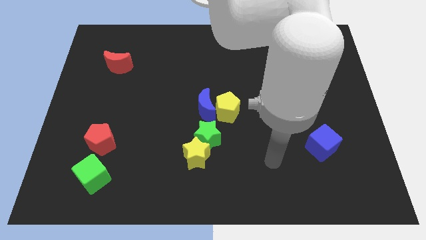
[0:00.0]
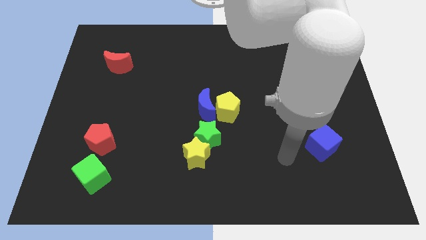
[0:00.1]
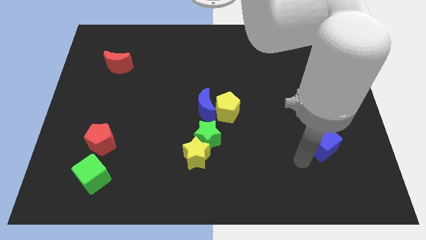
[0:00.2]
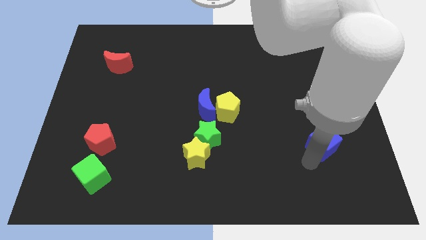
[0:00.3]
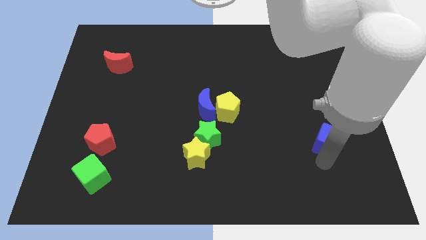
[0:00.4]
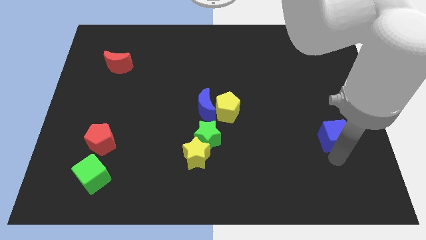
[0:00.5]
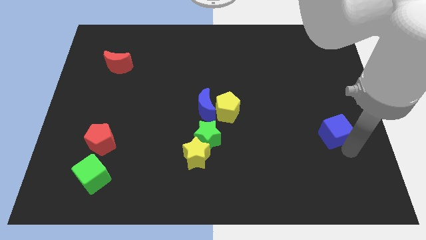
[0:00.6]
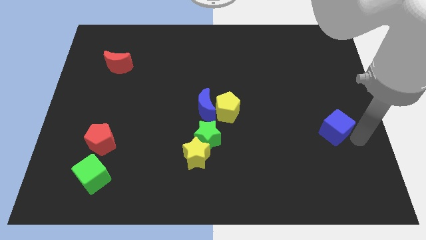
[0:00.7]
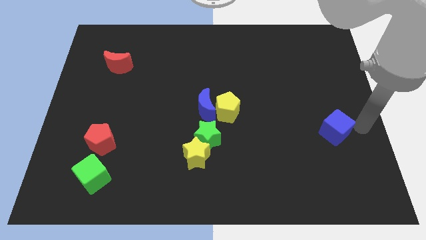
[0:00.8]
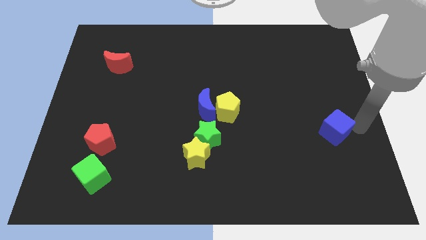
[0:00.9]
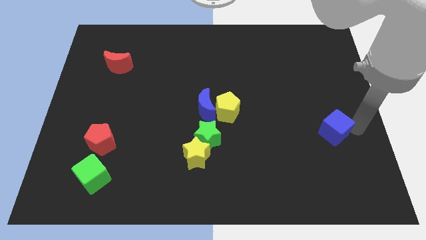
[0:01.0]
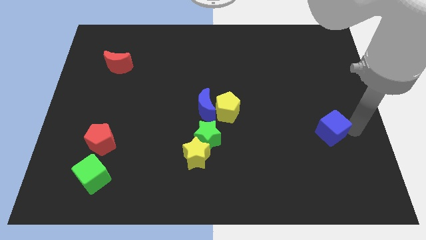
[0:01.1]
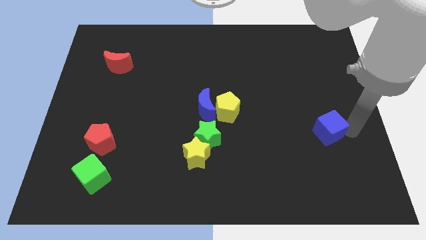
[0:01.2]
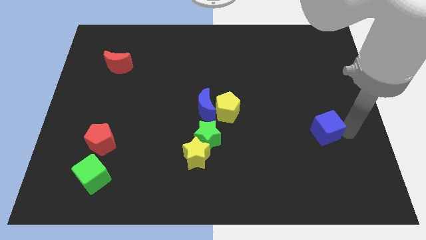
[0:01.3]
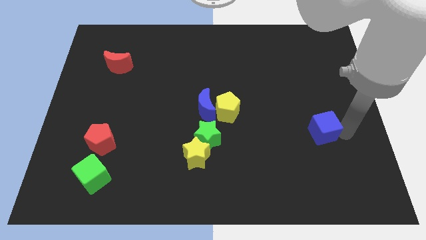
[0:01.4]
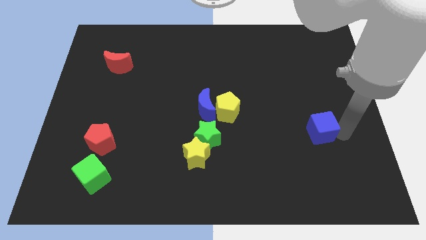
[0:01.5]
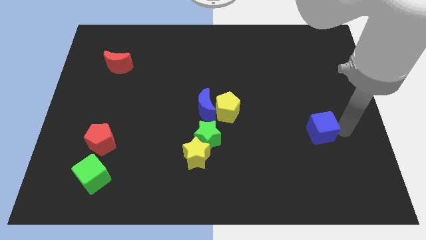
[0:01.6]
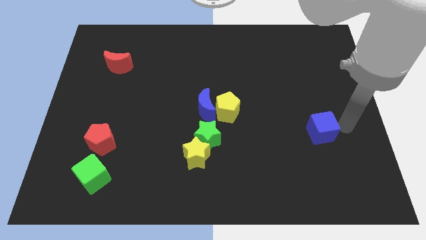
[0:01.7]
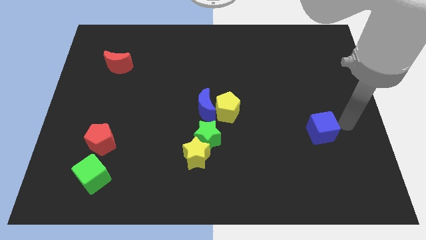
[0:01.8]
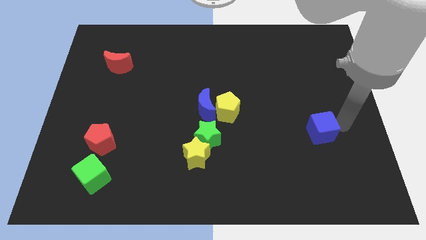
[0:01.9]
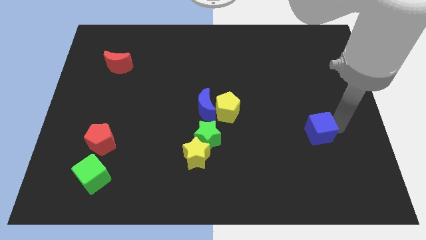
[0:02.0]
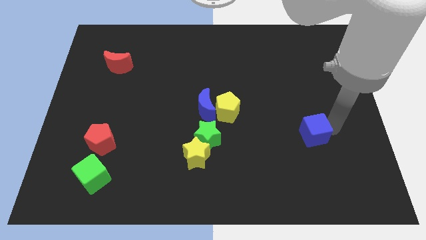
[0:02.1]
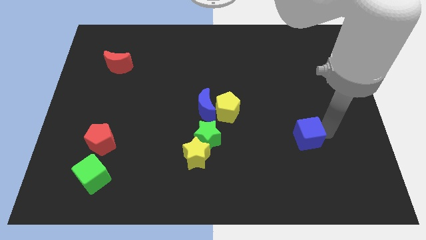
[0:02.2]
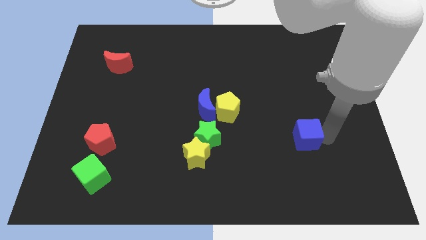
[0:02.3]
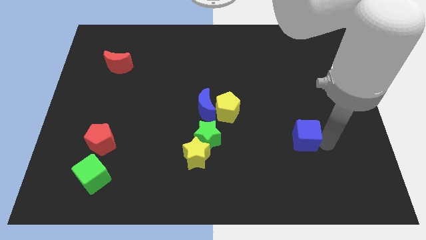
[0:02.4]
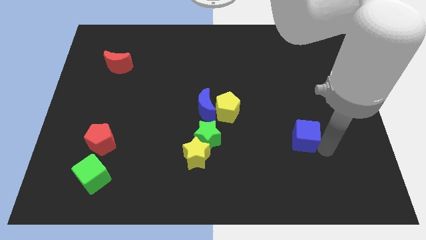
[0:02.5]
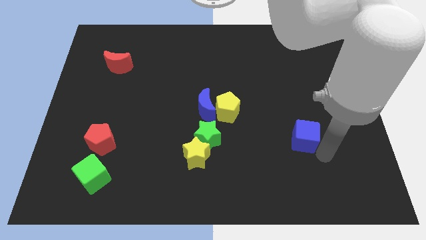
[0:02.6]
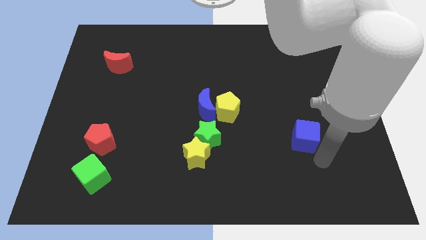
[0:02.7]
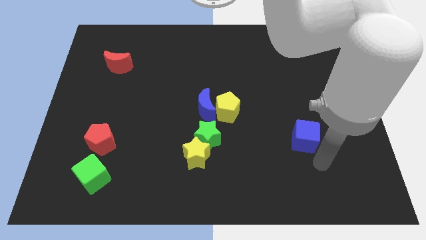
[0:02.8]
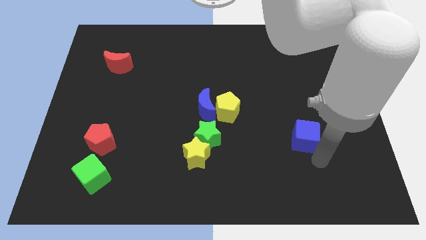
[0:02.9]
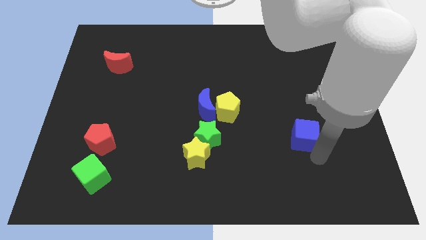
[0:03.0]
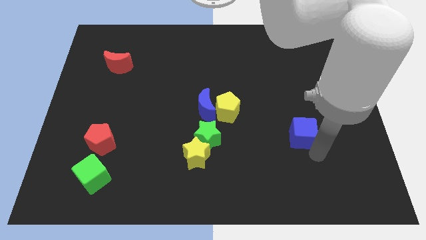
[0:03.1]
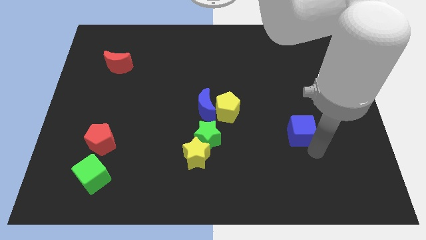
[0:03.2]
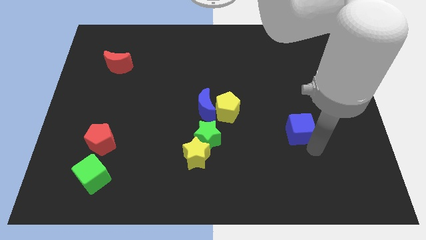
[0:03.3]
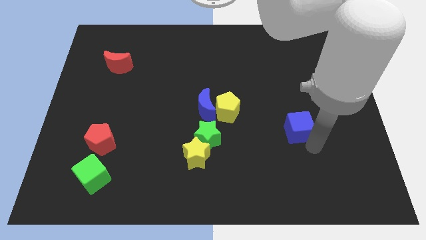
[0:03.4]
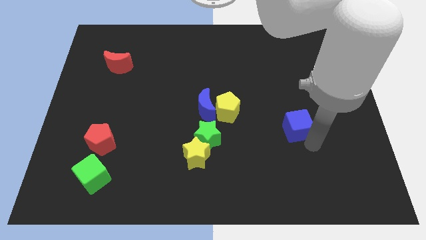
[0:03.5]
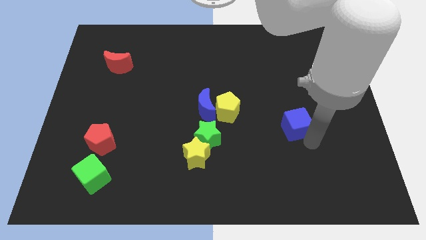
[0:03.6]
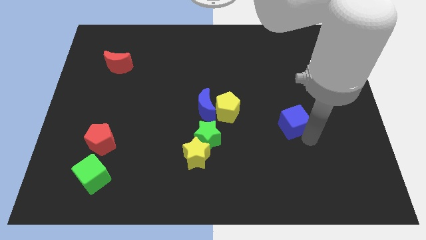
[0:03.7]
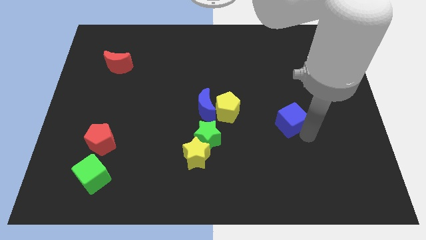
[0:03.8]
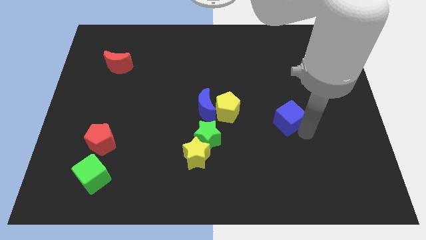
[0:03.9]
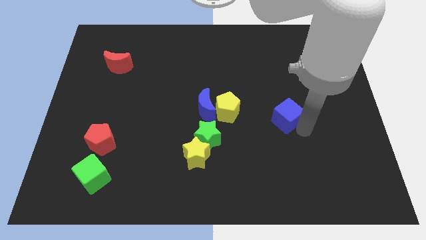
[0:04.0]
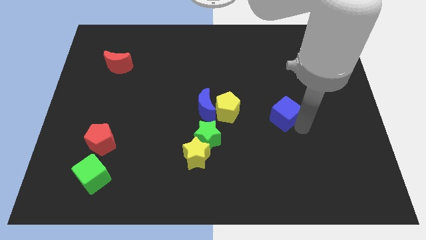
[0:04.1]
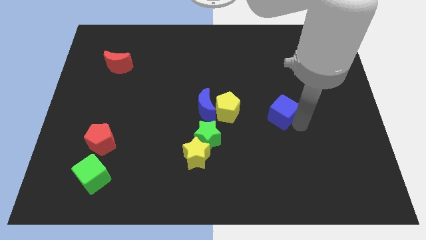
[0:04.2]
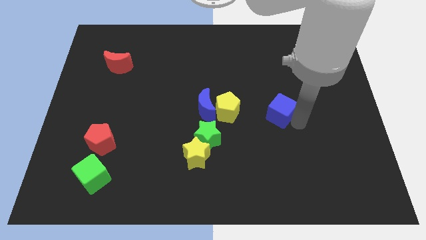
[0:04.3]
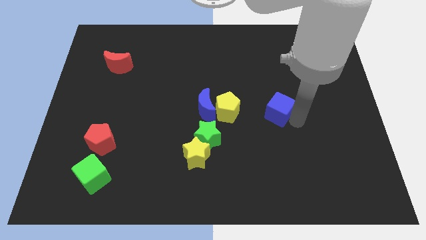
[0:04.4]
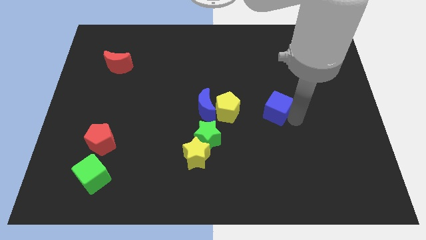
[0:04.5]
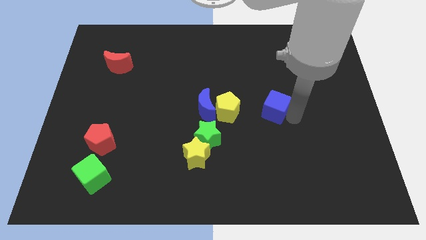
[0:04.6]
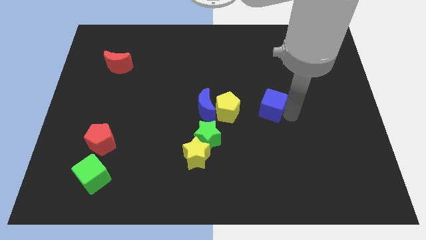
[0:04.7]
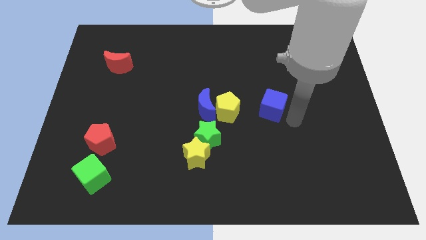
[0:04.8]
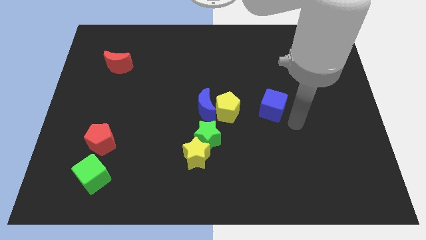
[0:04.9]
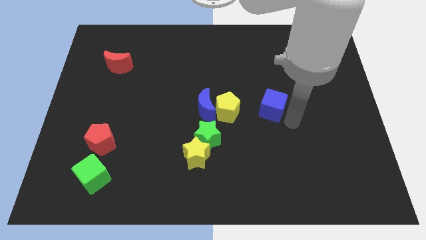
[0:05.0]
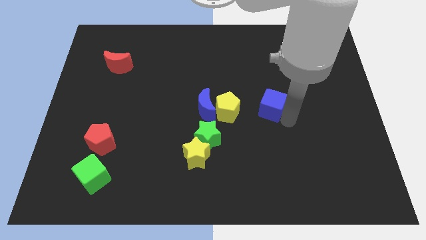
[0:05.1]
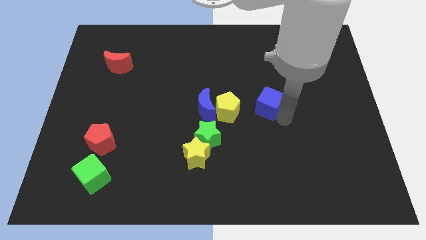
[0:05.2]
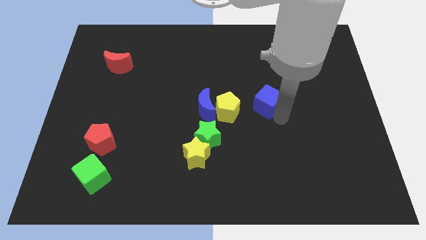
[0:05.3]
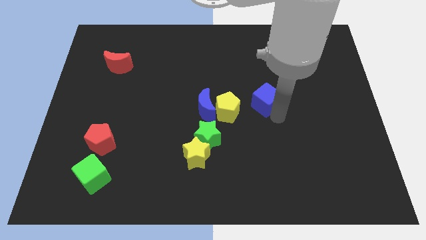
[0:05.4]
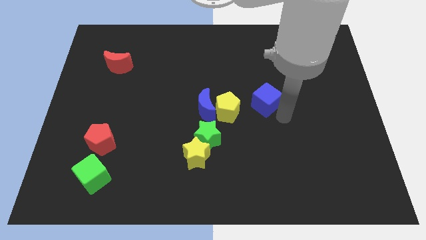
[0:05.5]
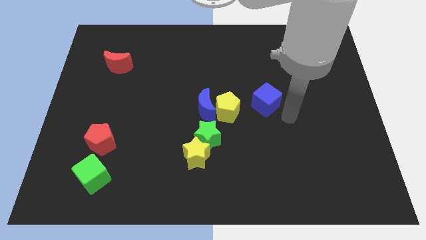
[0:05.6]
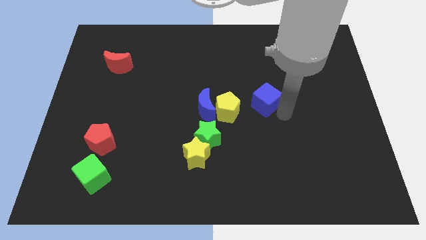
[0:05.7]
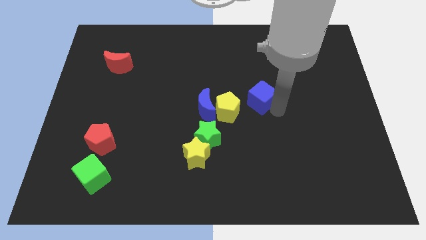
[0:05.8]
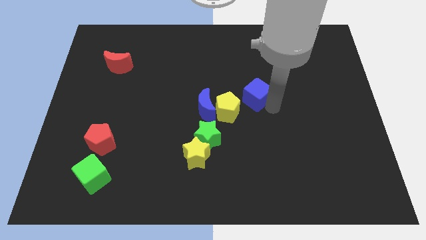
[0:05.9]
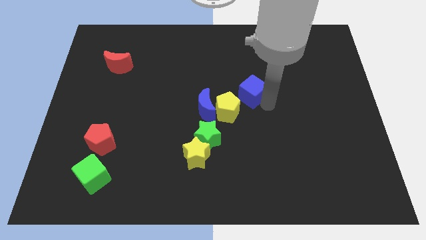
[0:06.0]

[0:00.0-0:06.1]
push the blue cube upwards and left

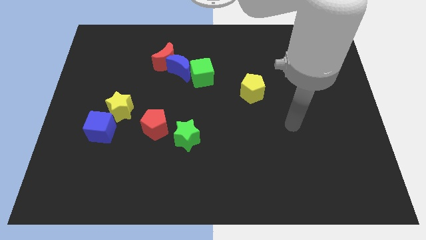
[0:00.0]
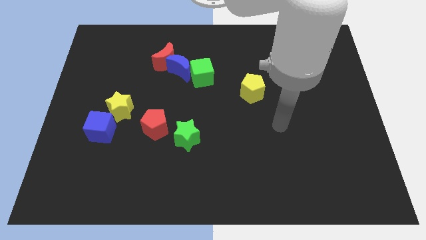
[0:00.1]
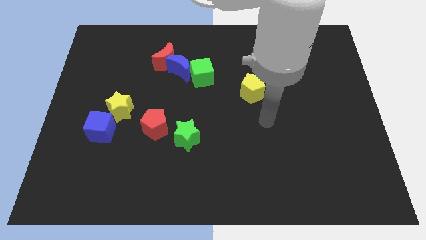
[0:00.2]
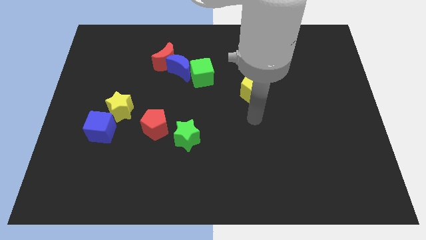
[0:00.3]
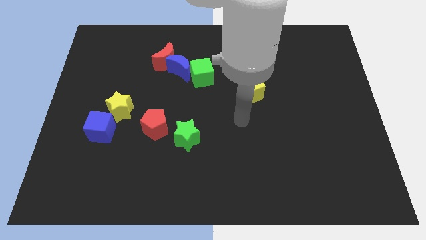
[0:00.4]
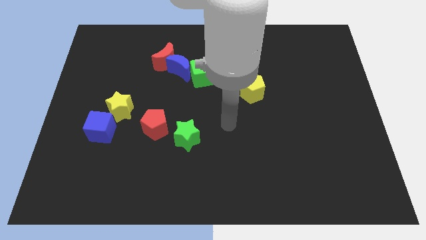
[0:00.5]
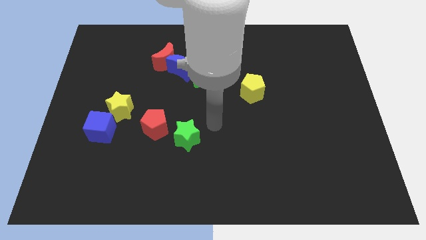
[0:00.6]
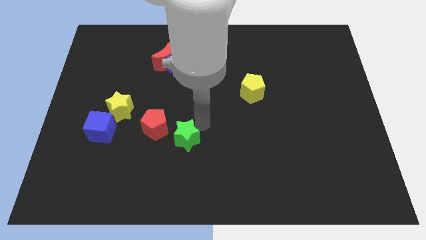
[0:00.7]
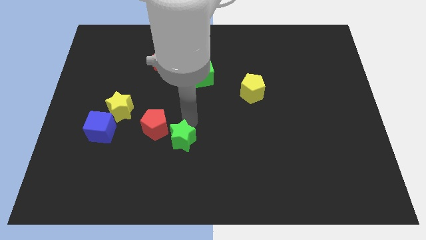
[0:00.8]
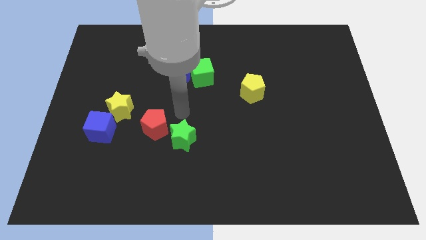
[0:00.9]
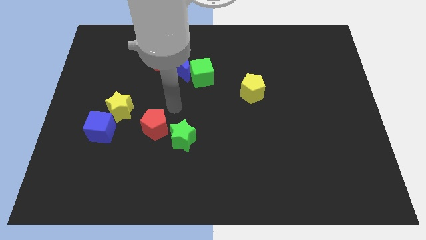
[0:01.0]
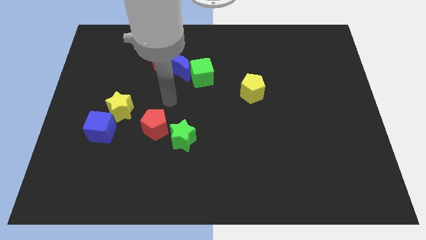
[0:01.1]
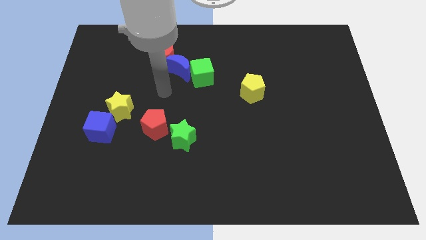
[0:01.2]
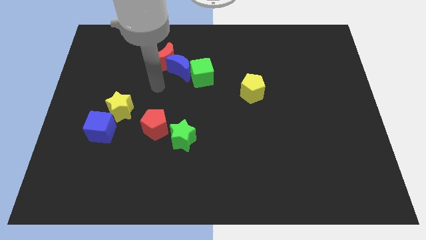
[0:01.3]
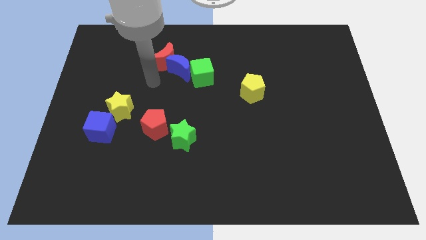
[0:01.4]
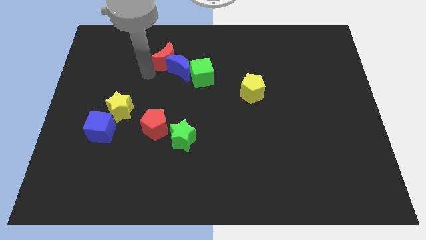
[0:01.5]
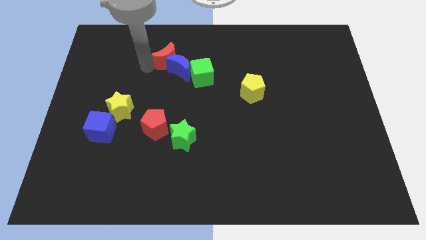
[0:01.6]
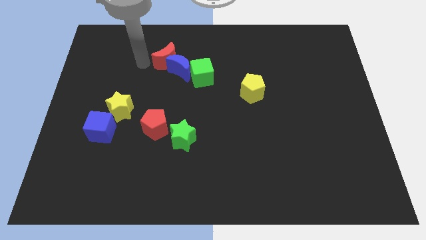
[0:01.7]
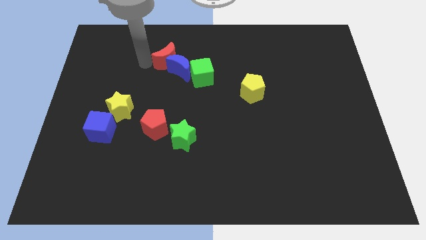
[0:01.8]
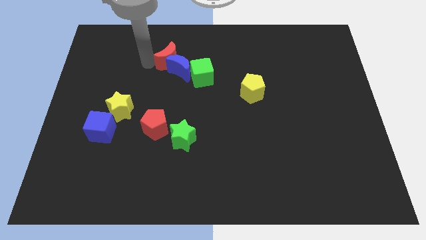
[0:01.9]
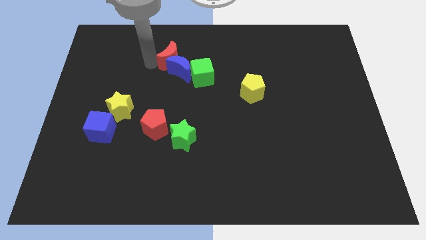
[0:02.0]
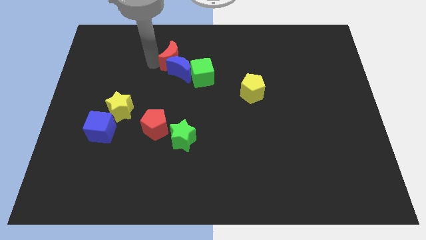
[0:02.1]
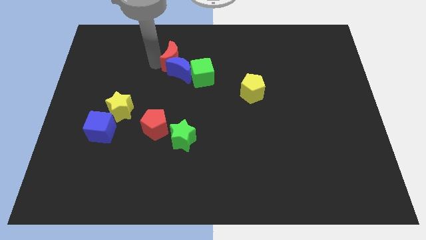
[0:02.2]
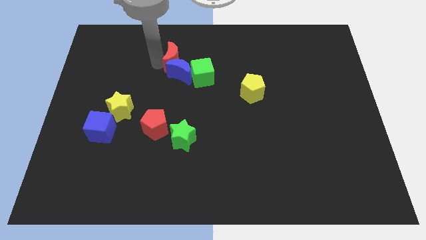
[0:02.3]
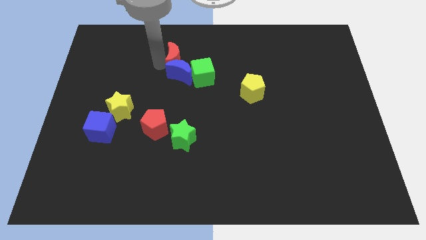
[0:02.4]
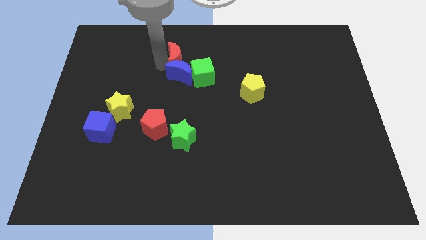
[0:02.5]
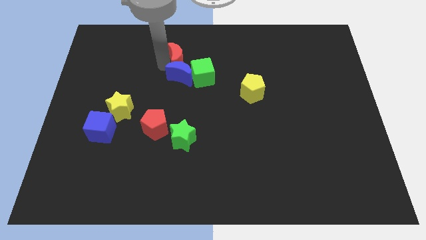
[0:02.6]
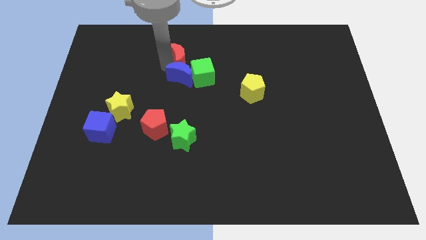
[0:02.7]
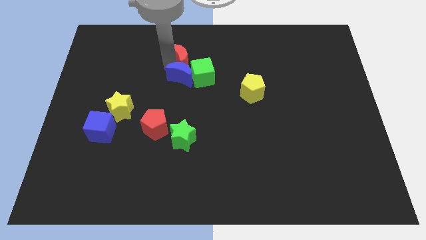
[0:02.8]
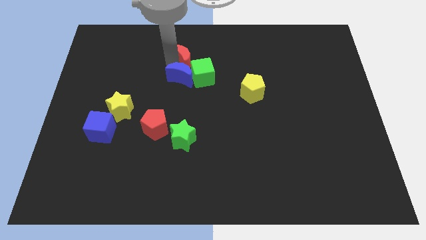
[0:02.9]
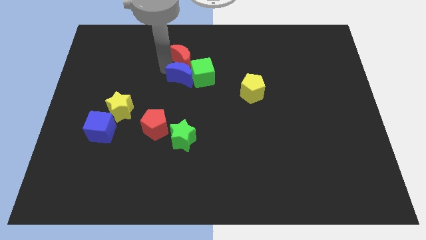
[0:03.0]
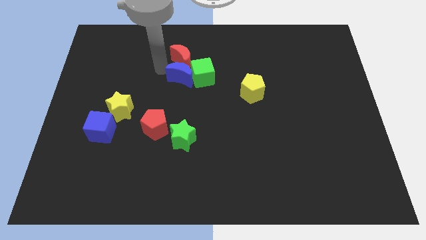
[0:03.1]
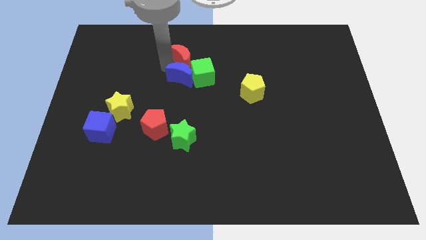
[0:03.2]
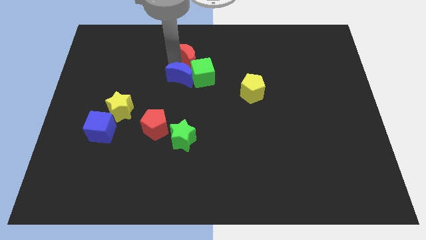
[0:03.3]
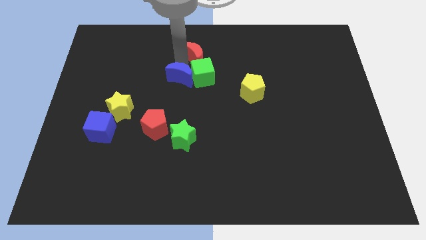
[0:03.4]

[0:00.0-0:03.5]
slightly slide the red moon right
